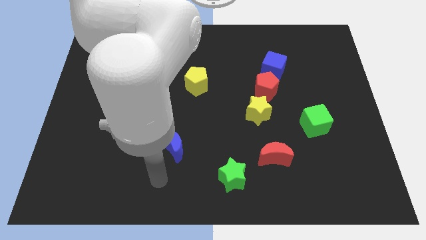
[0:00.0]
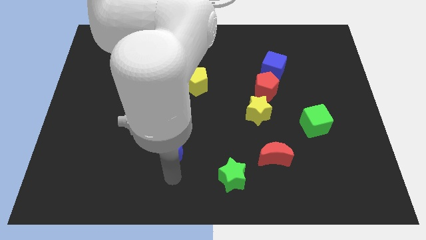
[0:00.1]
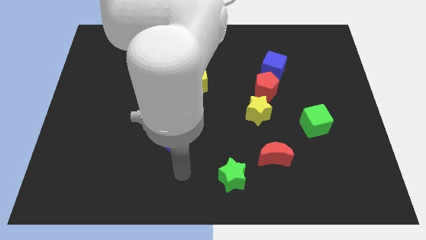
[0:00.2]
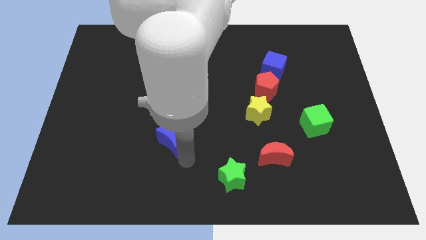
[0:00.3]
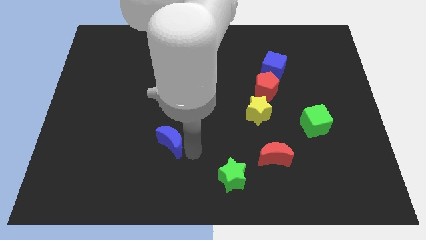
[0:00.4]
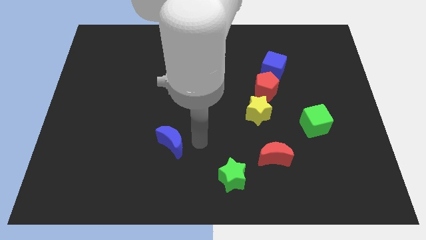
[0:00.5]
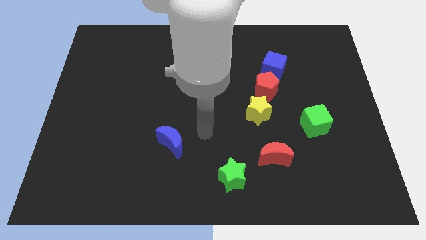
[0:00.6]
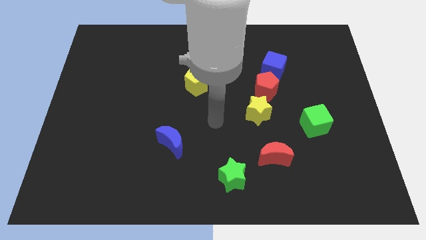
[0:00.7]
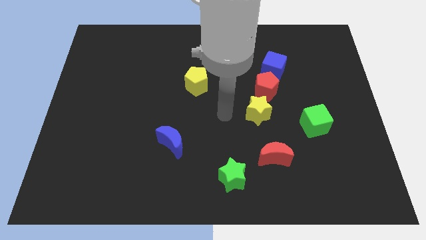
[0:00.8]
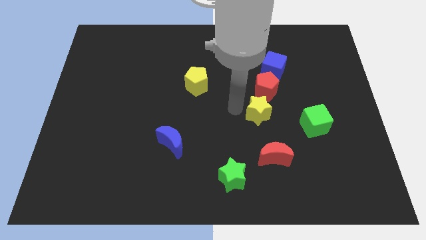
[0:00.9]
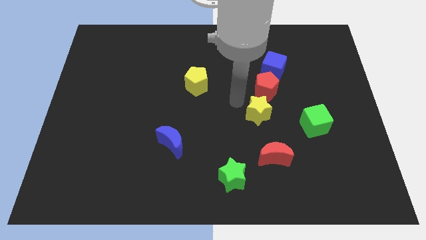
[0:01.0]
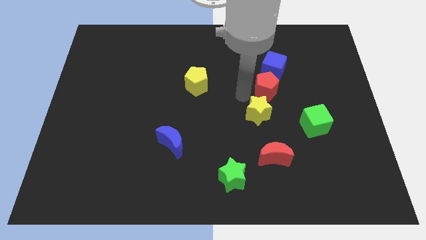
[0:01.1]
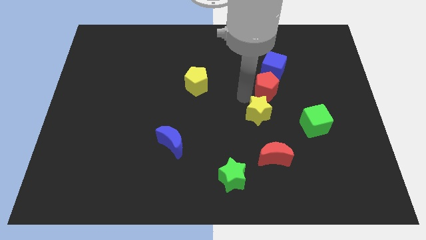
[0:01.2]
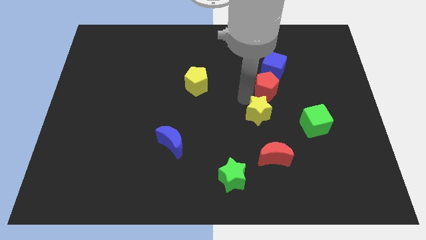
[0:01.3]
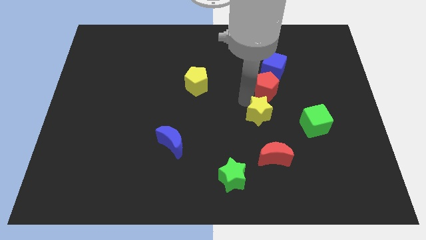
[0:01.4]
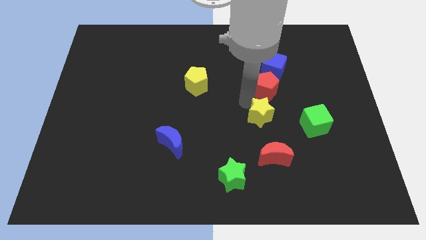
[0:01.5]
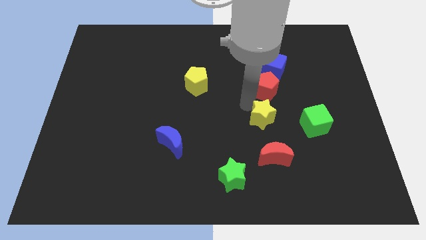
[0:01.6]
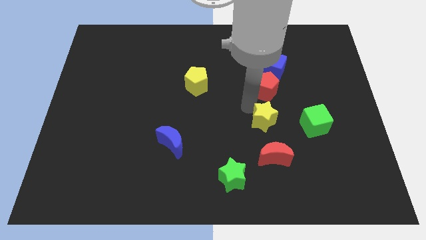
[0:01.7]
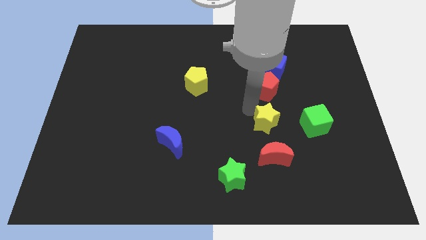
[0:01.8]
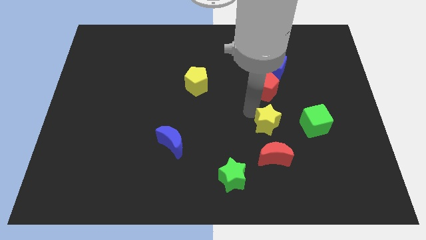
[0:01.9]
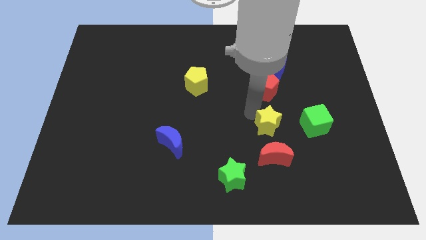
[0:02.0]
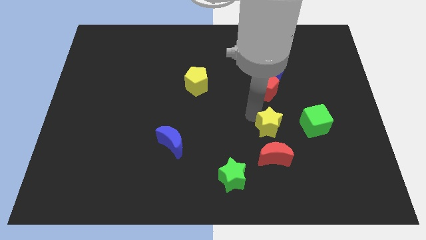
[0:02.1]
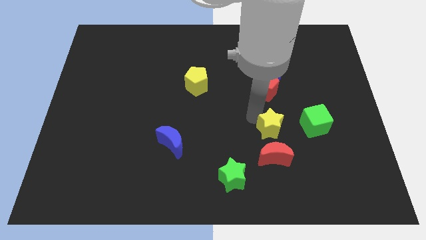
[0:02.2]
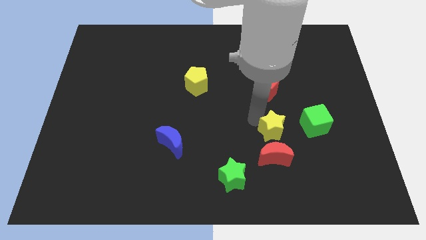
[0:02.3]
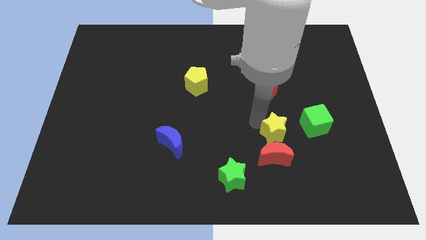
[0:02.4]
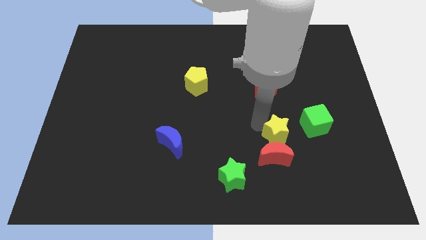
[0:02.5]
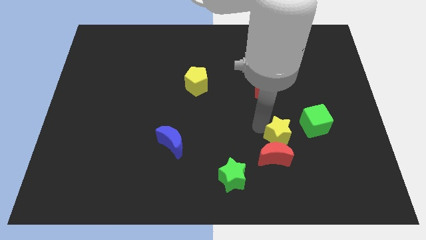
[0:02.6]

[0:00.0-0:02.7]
push the yellow star diagonally down and to the right a little

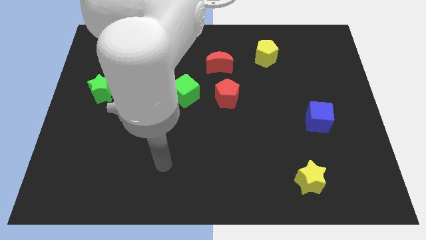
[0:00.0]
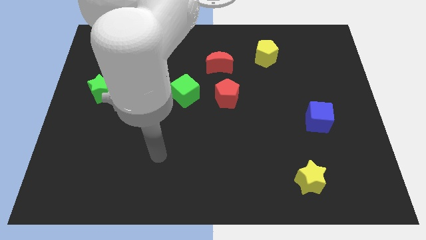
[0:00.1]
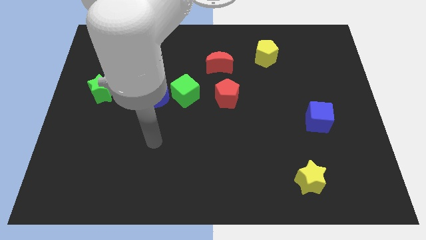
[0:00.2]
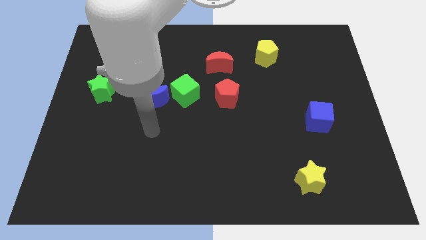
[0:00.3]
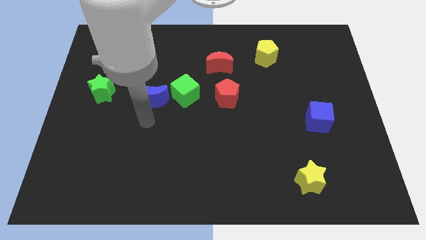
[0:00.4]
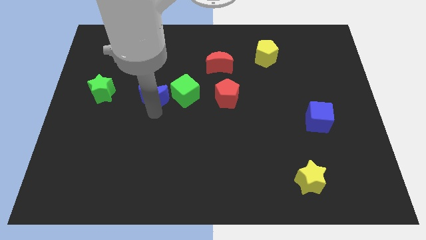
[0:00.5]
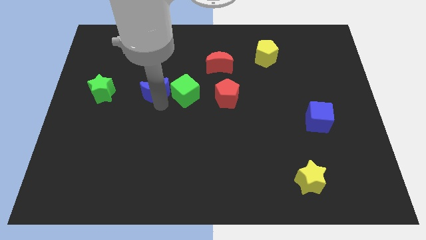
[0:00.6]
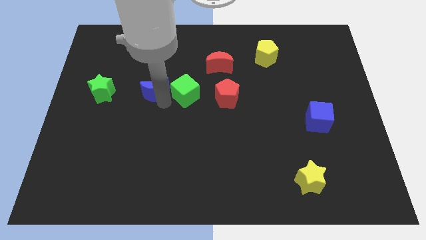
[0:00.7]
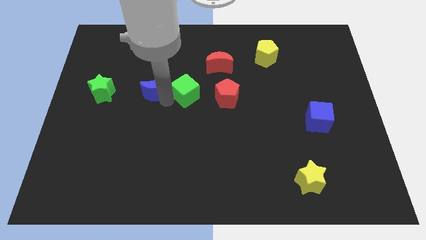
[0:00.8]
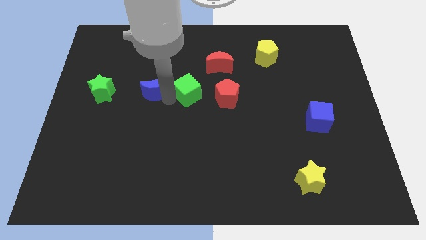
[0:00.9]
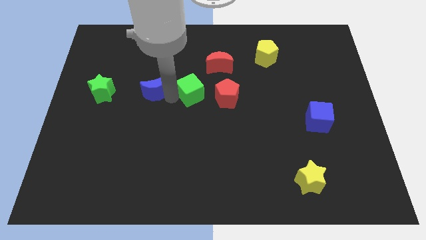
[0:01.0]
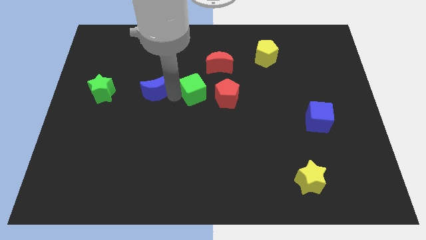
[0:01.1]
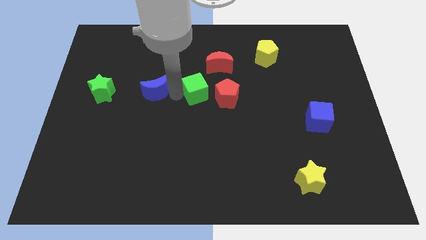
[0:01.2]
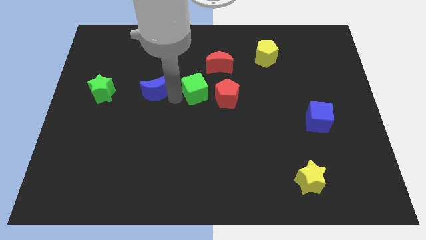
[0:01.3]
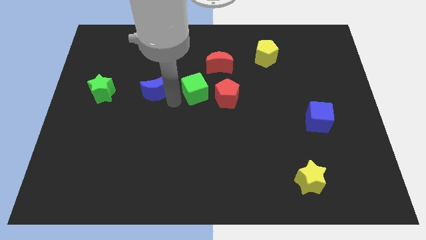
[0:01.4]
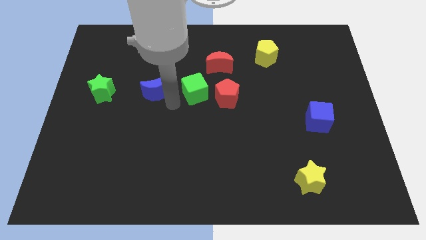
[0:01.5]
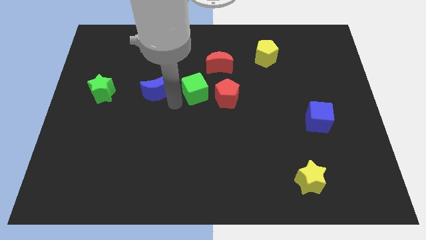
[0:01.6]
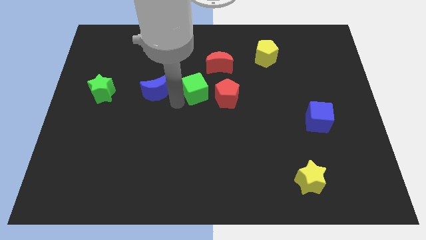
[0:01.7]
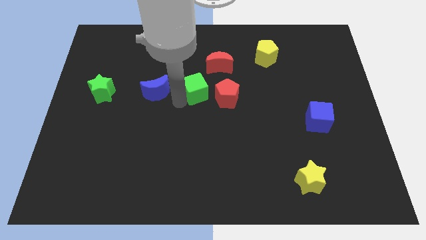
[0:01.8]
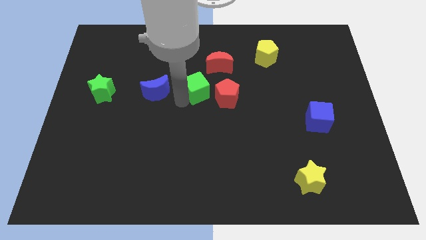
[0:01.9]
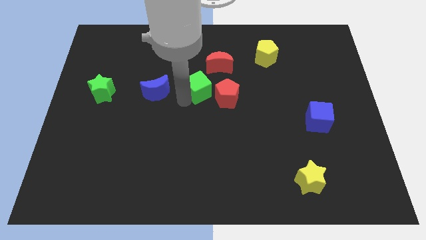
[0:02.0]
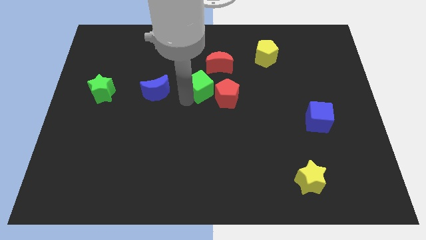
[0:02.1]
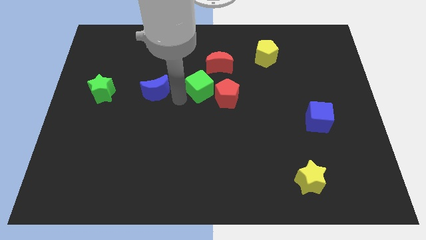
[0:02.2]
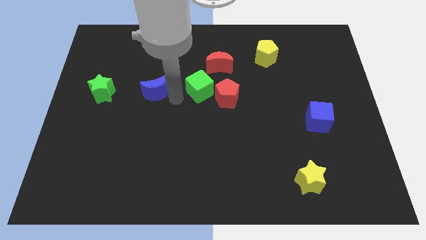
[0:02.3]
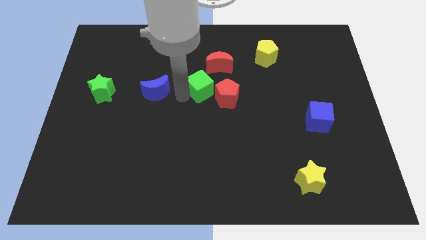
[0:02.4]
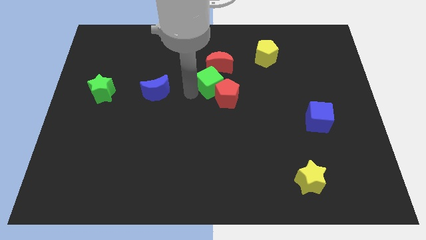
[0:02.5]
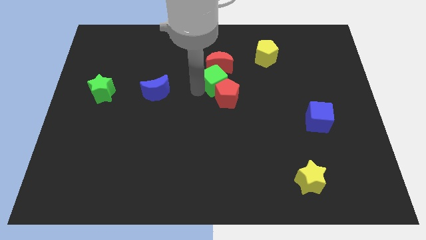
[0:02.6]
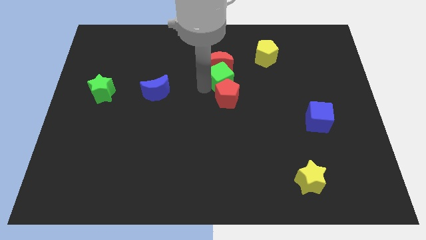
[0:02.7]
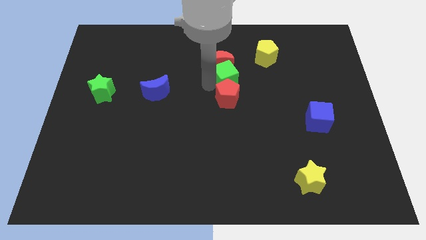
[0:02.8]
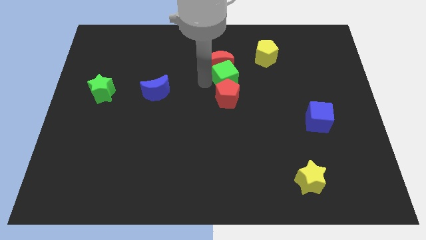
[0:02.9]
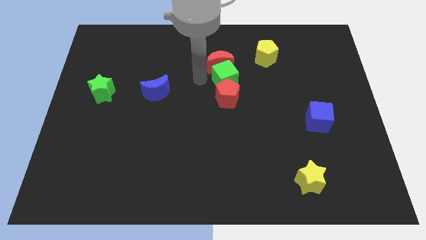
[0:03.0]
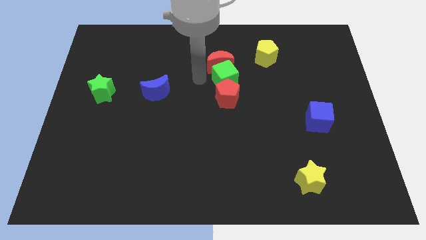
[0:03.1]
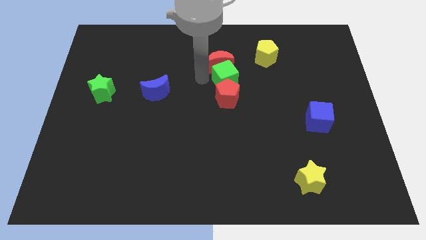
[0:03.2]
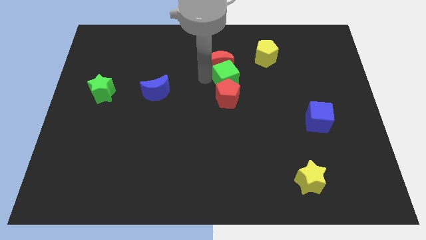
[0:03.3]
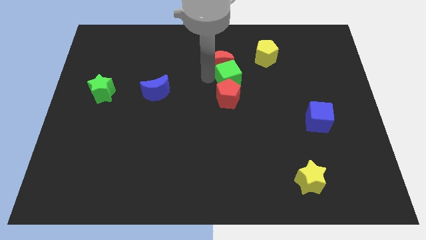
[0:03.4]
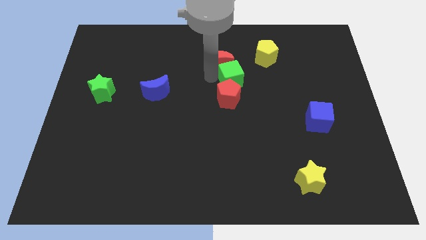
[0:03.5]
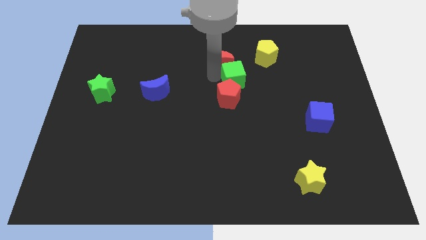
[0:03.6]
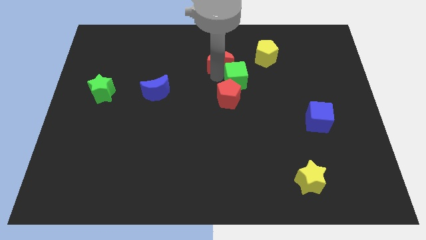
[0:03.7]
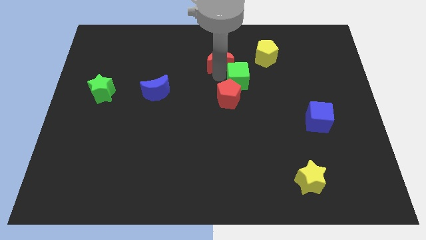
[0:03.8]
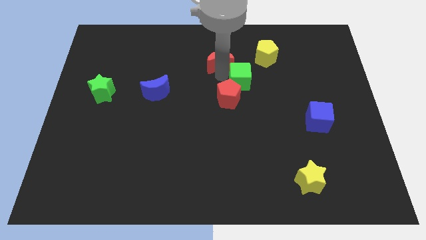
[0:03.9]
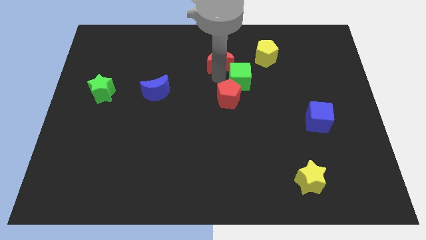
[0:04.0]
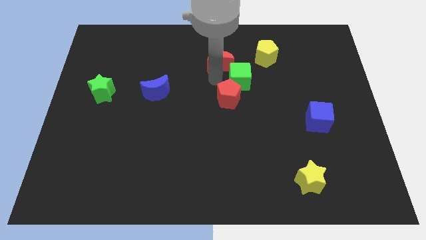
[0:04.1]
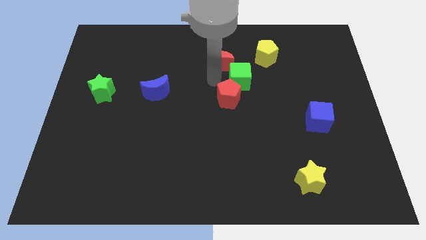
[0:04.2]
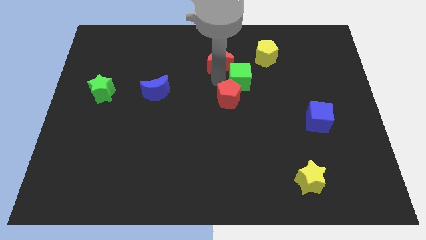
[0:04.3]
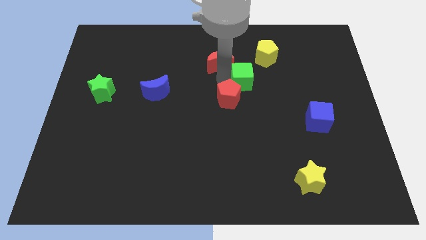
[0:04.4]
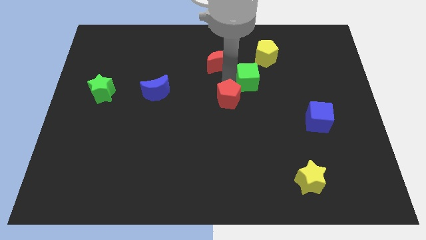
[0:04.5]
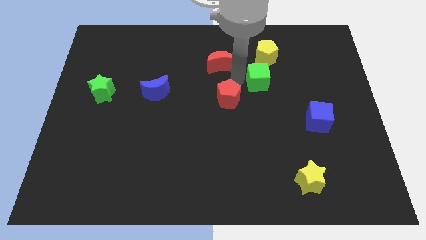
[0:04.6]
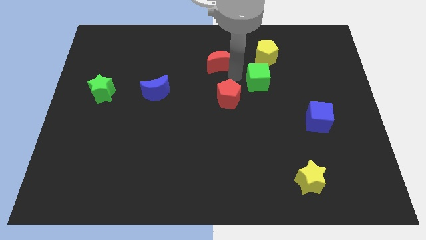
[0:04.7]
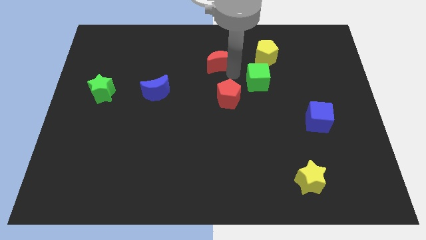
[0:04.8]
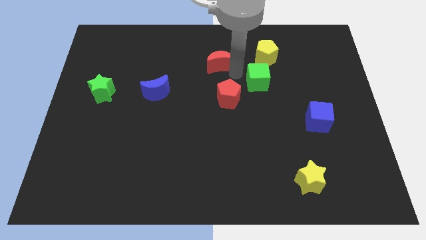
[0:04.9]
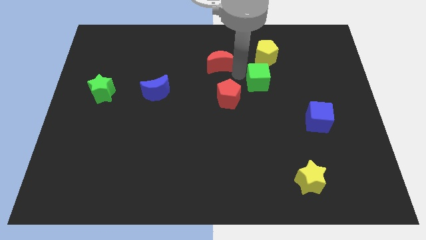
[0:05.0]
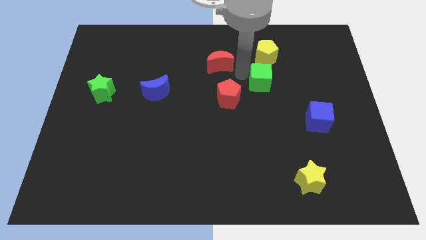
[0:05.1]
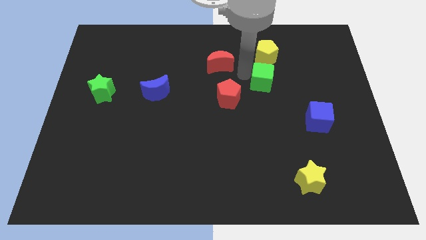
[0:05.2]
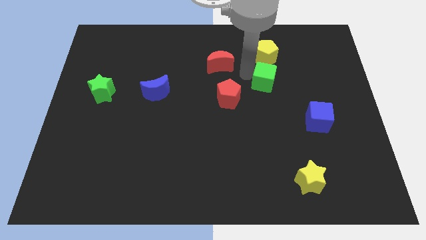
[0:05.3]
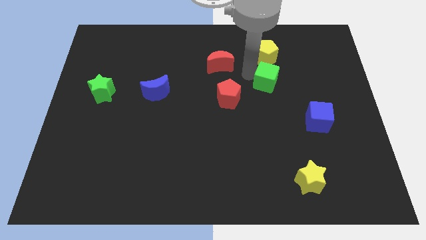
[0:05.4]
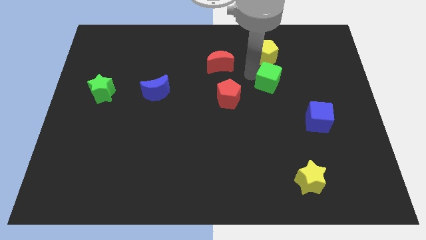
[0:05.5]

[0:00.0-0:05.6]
push the green cube right

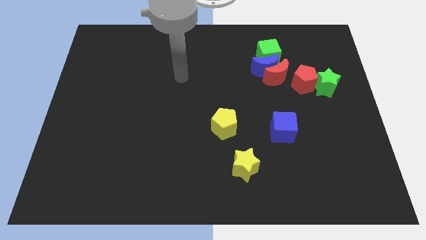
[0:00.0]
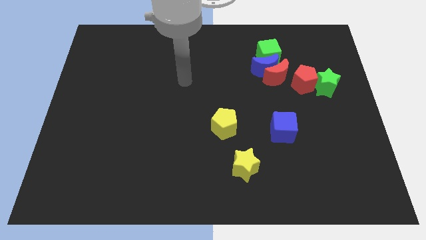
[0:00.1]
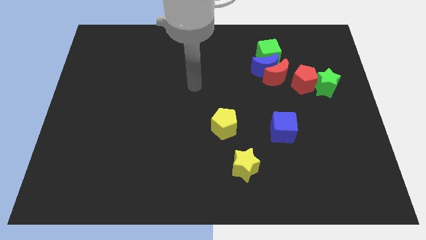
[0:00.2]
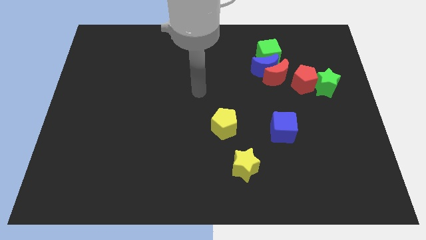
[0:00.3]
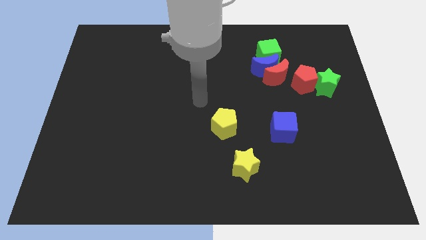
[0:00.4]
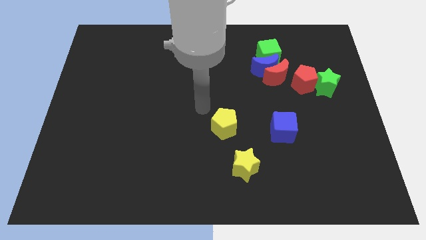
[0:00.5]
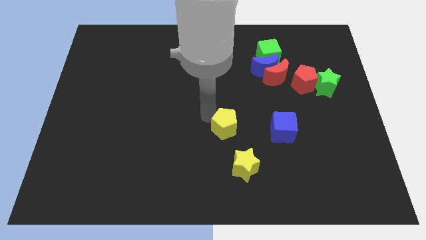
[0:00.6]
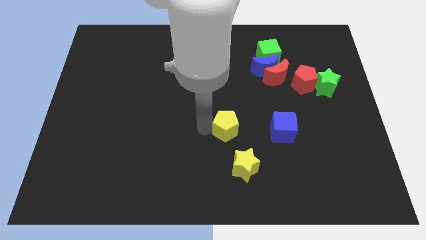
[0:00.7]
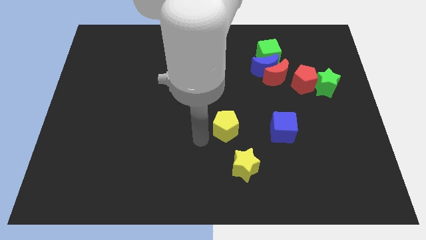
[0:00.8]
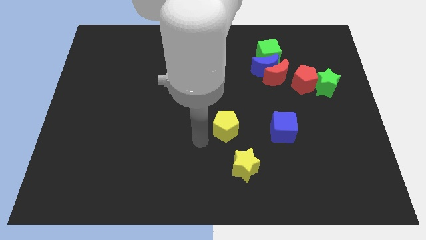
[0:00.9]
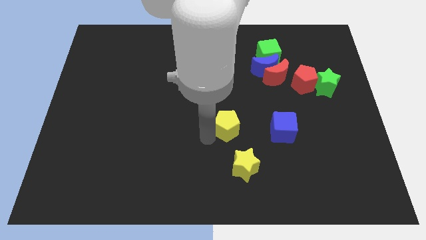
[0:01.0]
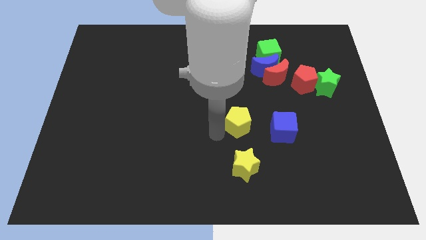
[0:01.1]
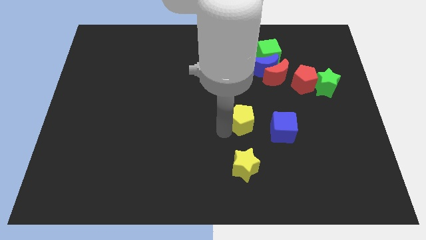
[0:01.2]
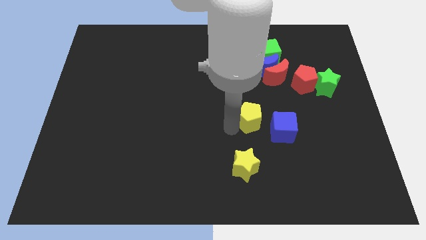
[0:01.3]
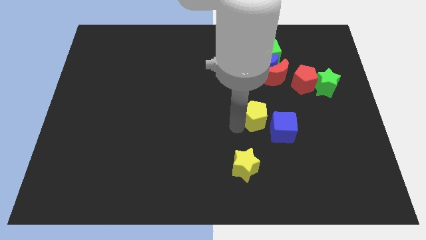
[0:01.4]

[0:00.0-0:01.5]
slightly push the yellow pentagon to the right
